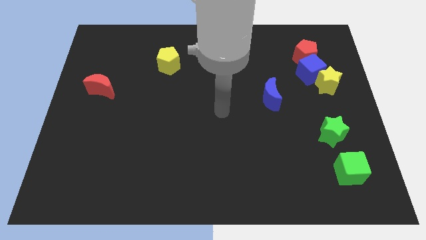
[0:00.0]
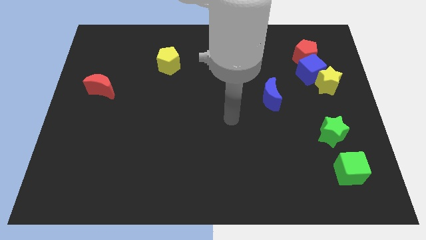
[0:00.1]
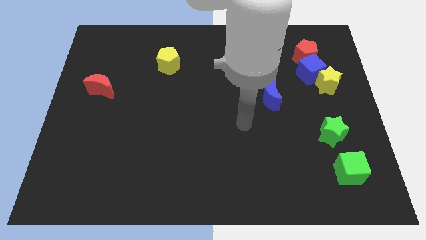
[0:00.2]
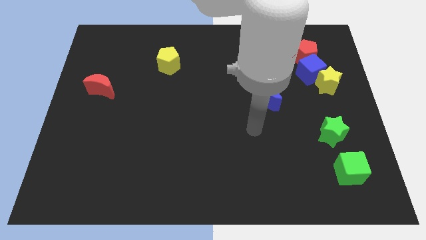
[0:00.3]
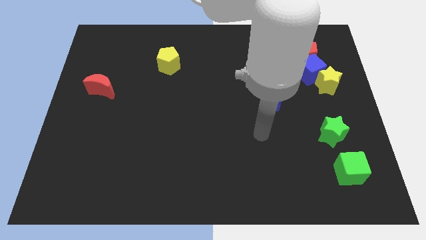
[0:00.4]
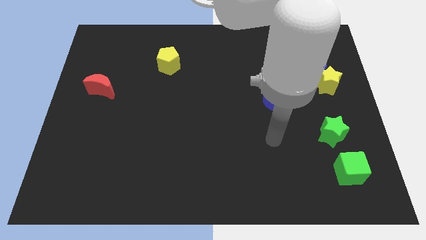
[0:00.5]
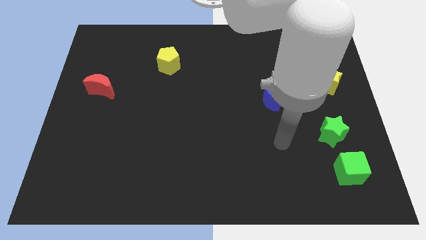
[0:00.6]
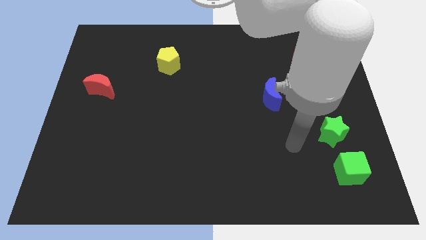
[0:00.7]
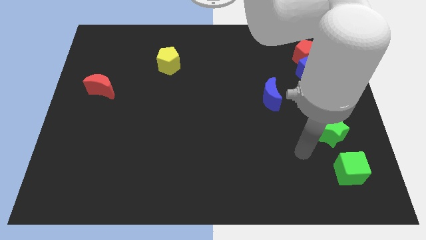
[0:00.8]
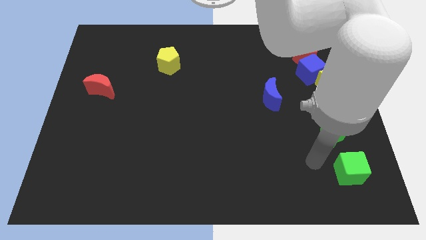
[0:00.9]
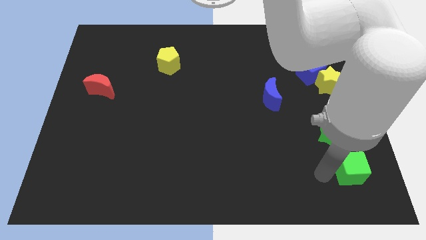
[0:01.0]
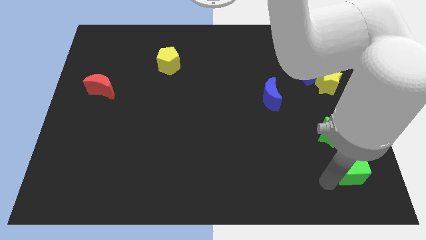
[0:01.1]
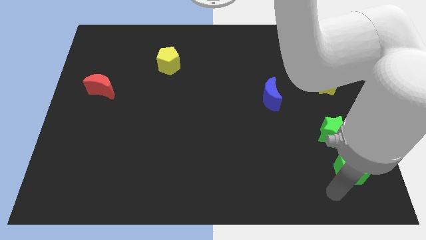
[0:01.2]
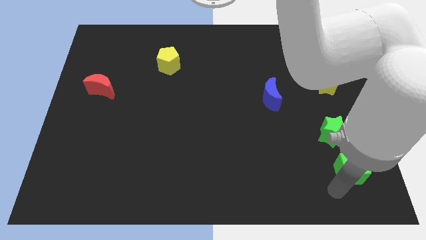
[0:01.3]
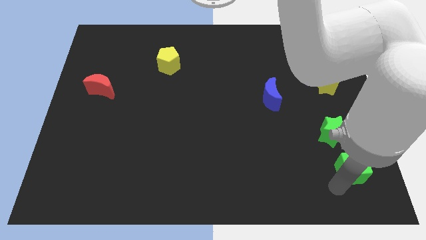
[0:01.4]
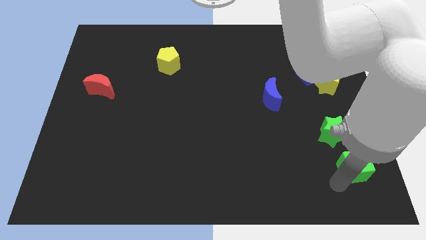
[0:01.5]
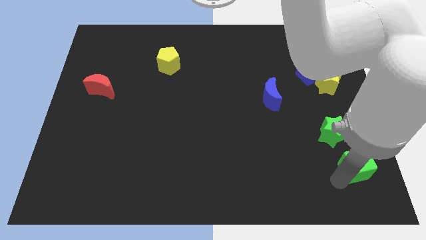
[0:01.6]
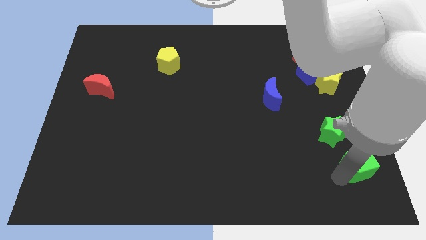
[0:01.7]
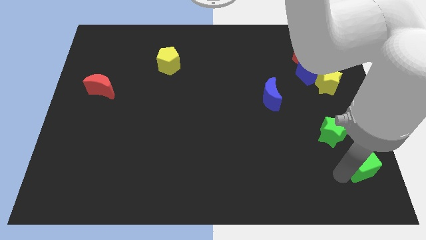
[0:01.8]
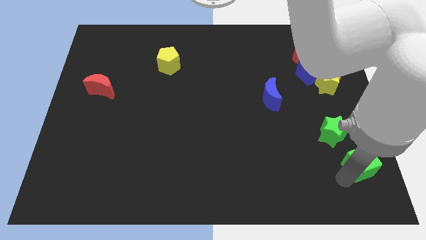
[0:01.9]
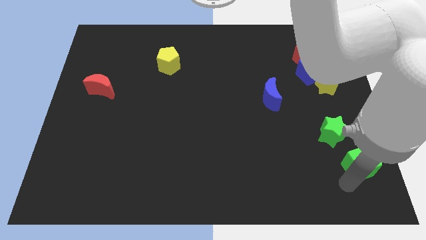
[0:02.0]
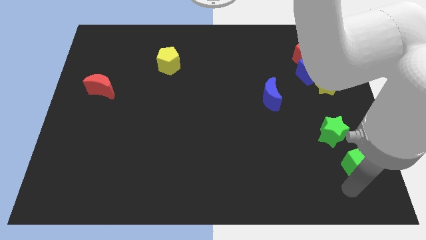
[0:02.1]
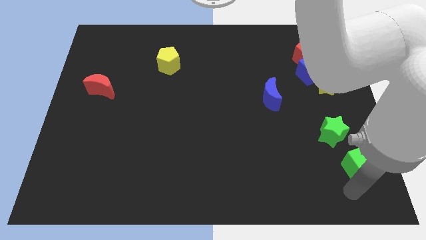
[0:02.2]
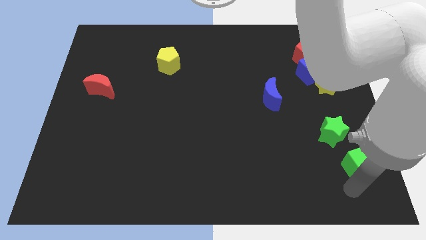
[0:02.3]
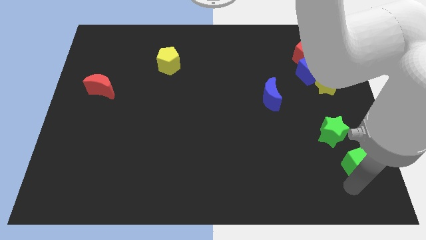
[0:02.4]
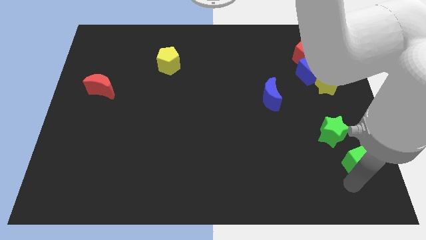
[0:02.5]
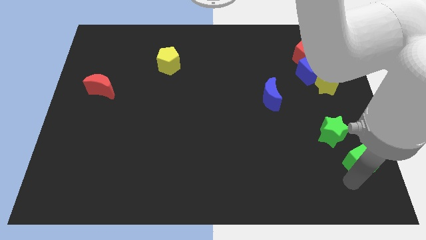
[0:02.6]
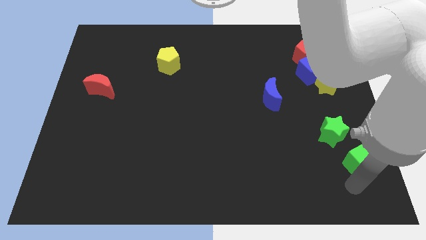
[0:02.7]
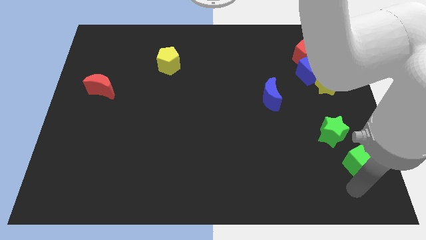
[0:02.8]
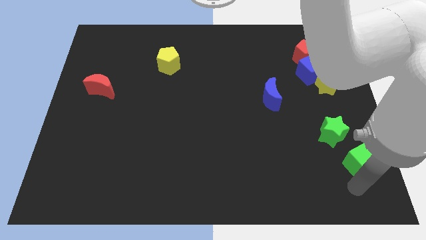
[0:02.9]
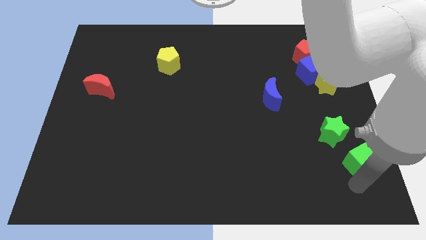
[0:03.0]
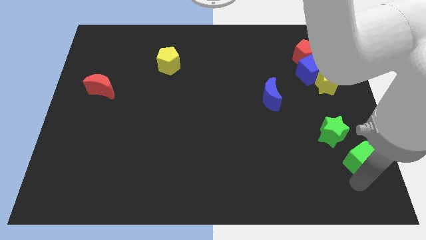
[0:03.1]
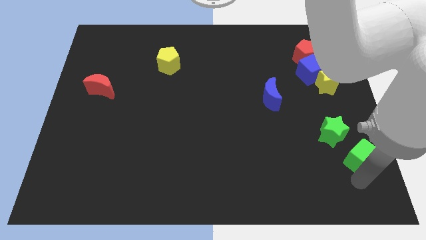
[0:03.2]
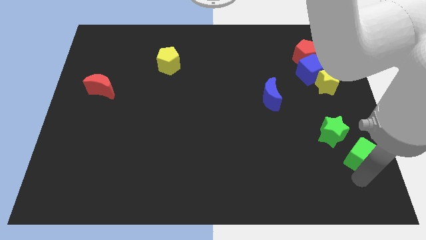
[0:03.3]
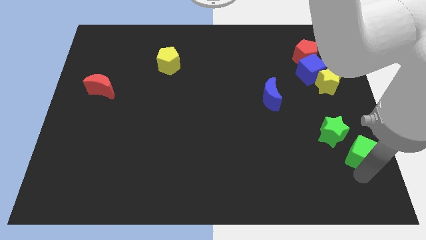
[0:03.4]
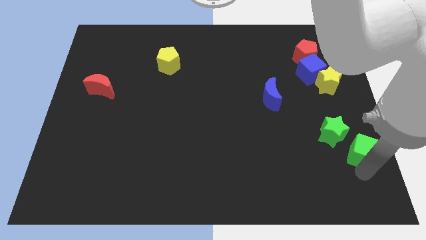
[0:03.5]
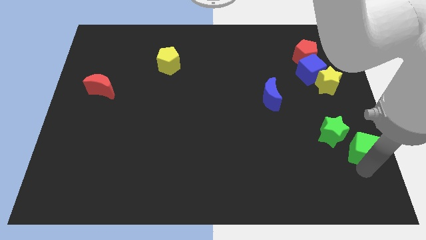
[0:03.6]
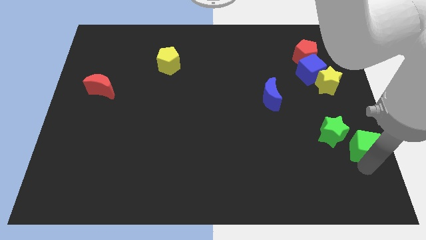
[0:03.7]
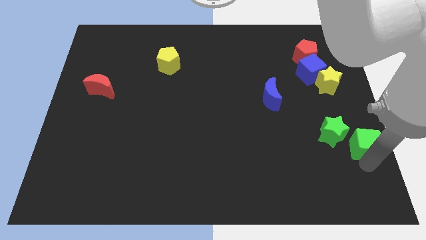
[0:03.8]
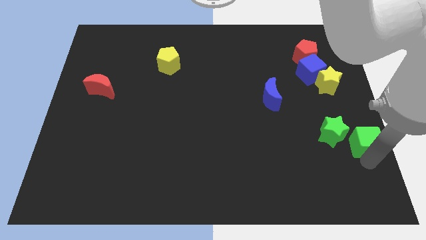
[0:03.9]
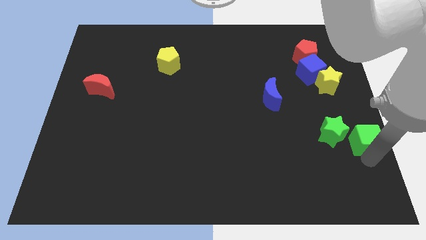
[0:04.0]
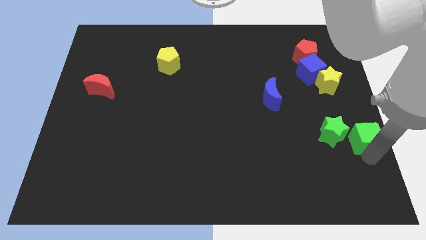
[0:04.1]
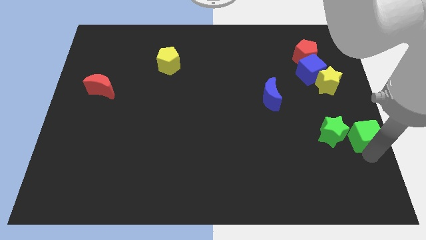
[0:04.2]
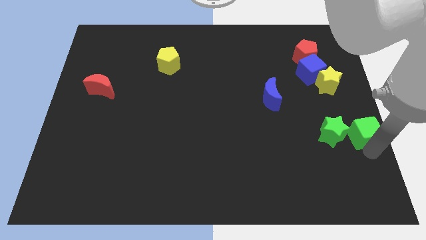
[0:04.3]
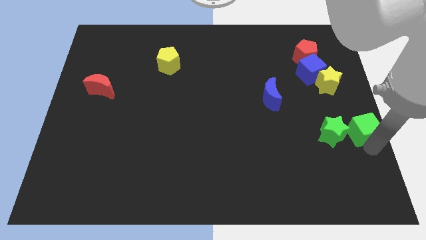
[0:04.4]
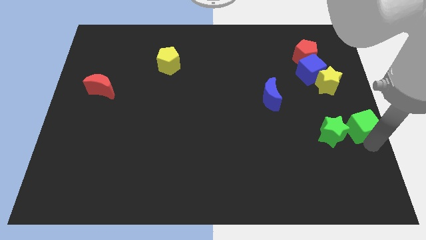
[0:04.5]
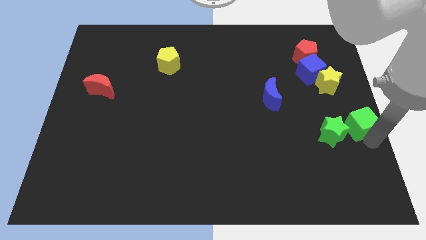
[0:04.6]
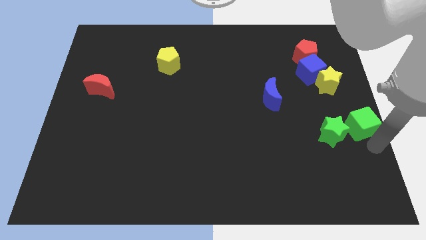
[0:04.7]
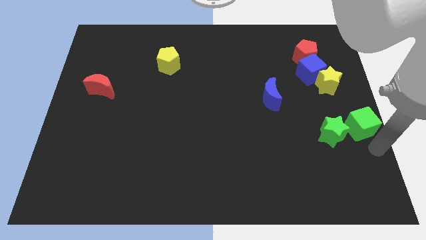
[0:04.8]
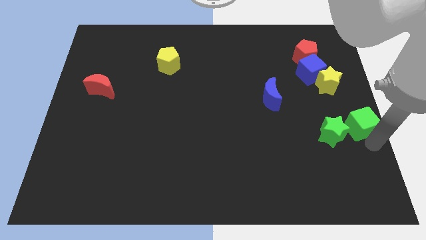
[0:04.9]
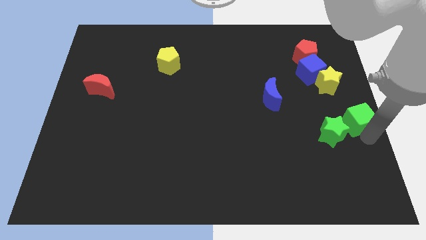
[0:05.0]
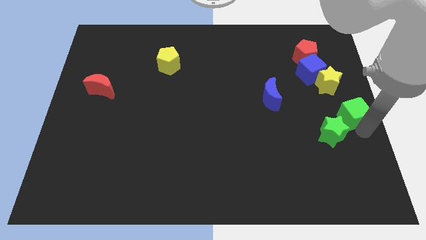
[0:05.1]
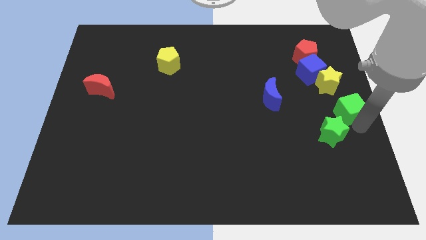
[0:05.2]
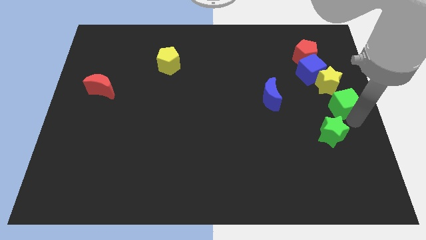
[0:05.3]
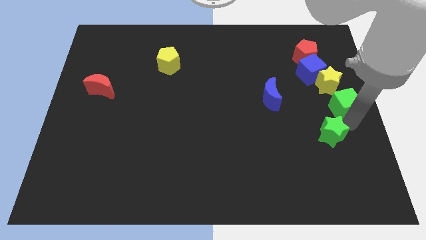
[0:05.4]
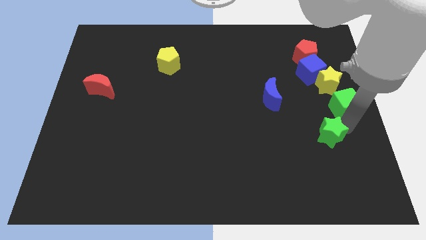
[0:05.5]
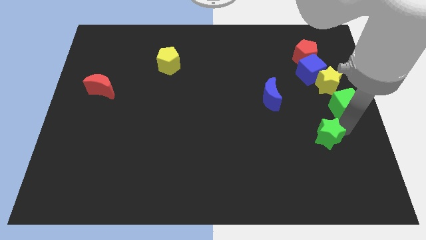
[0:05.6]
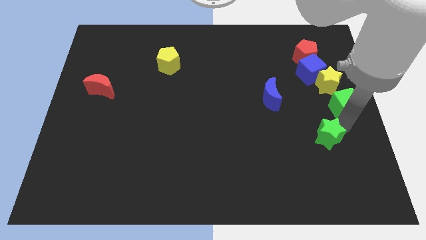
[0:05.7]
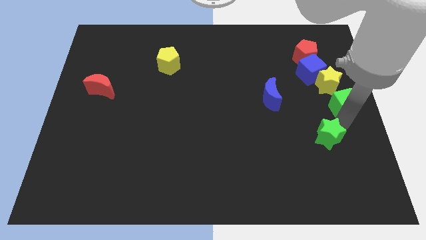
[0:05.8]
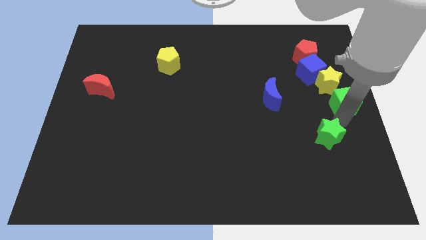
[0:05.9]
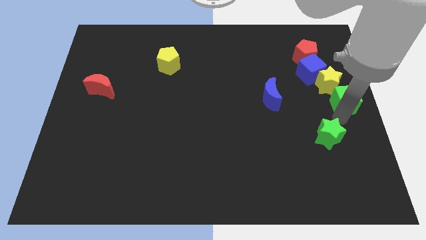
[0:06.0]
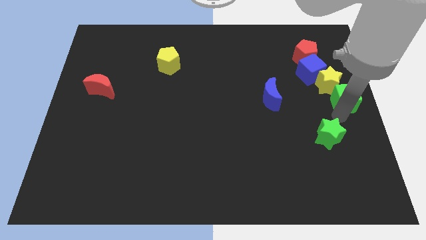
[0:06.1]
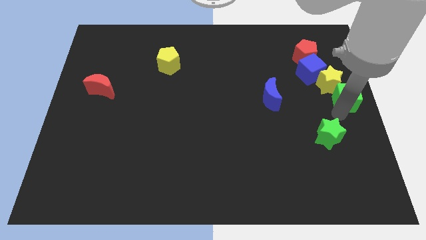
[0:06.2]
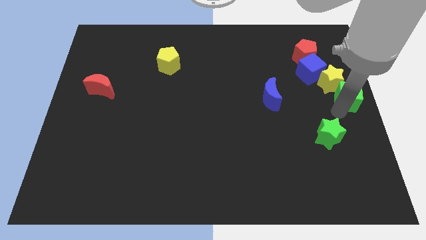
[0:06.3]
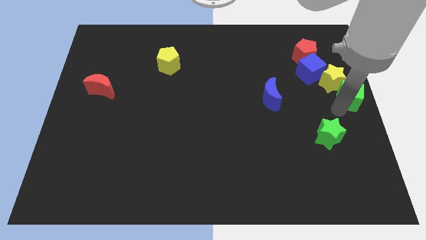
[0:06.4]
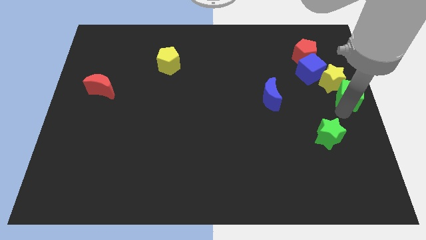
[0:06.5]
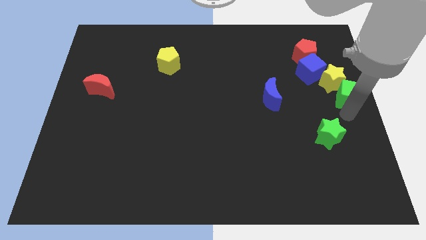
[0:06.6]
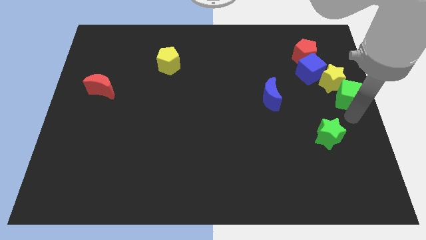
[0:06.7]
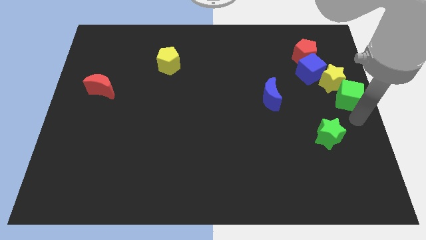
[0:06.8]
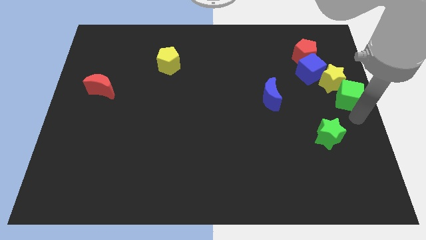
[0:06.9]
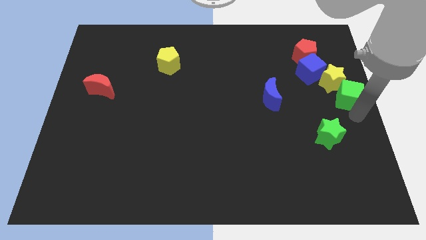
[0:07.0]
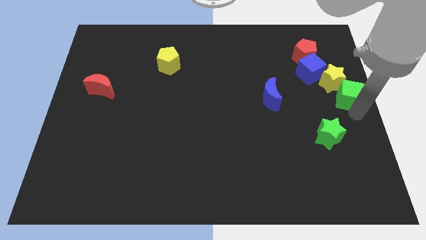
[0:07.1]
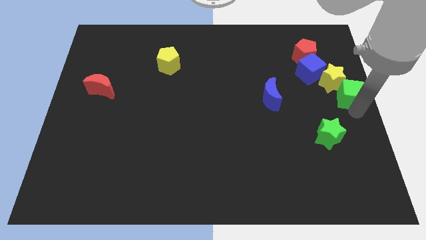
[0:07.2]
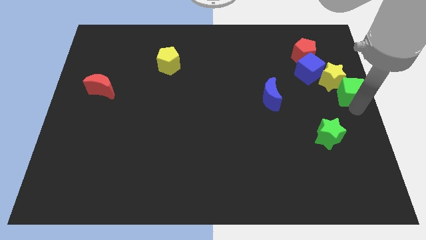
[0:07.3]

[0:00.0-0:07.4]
slide the green cube upwards

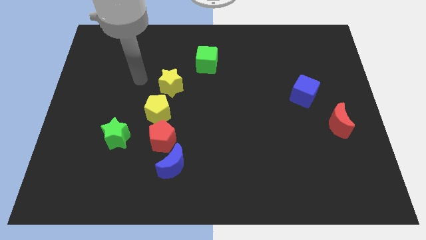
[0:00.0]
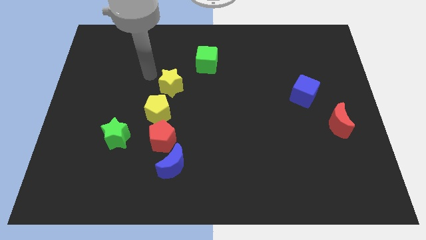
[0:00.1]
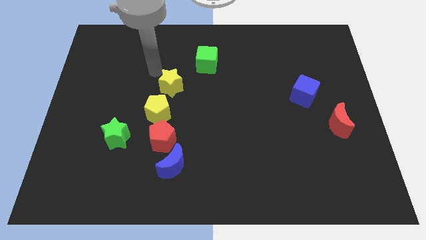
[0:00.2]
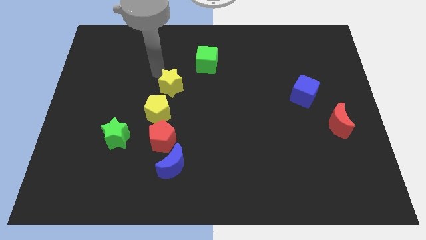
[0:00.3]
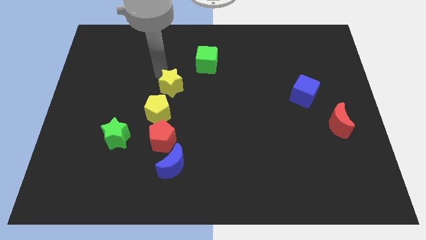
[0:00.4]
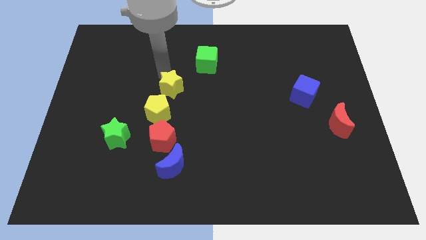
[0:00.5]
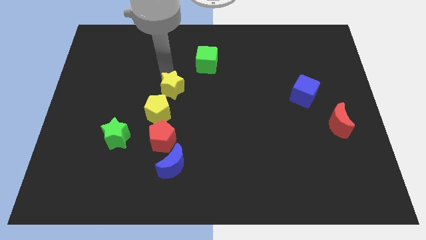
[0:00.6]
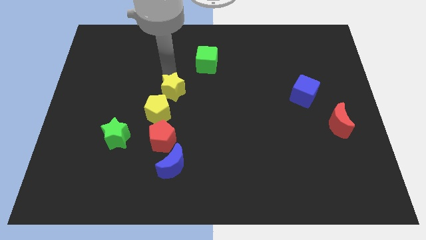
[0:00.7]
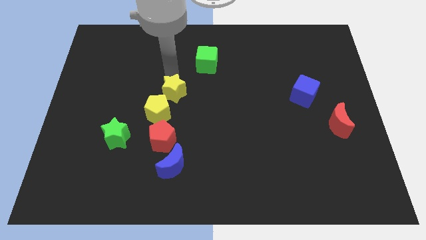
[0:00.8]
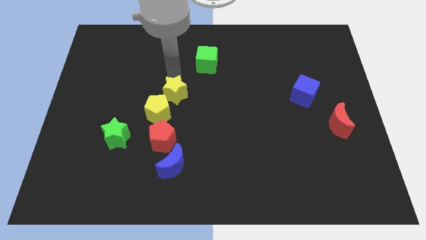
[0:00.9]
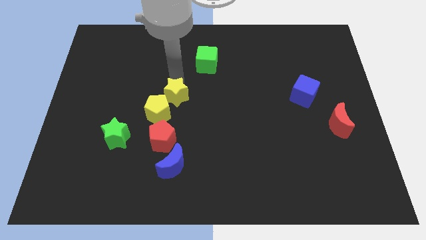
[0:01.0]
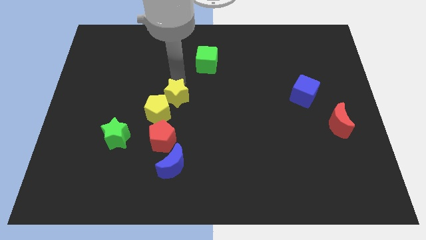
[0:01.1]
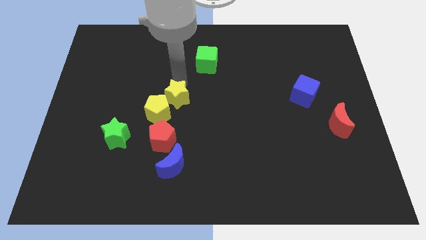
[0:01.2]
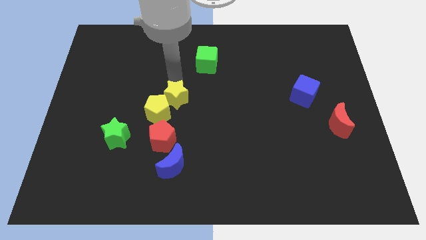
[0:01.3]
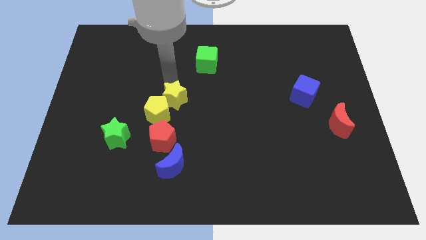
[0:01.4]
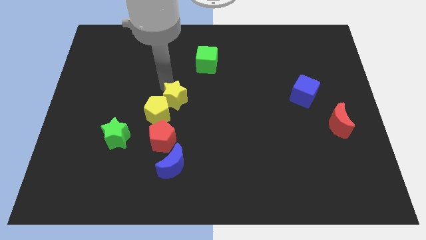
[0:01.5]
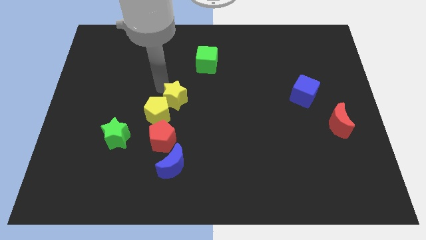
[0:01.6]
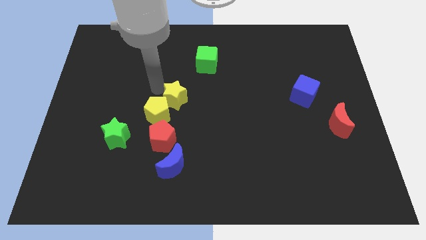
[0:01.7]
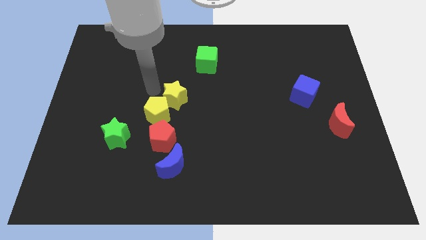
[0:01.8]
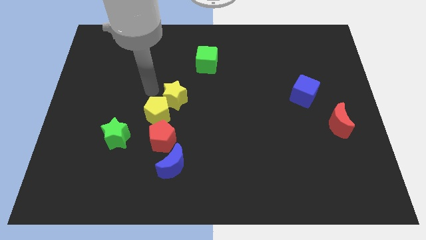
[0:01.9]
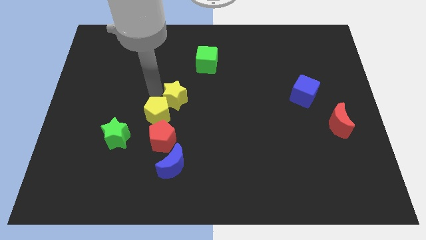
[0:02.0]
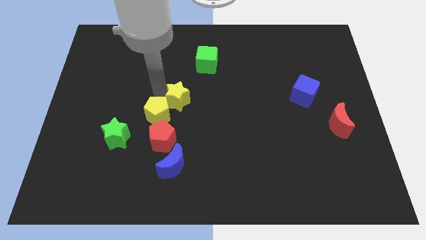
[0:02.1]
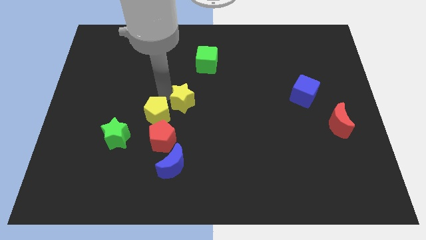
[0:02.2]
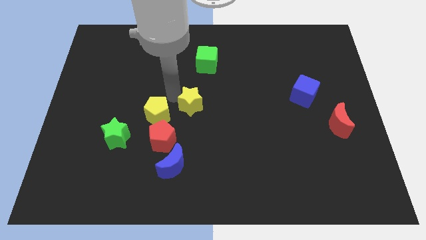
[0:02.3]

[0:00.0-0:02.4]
push the yellow star a little bit down and right diagonally
